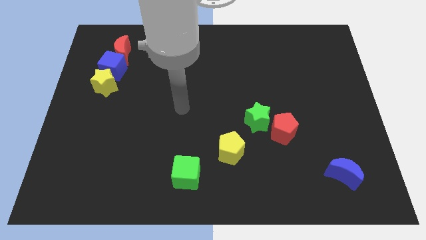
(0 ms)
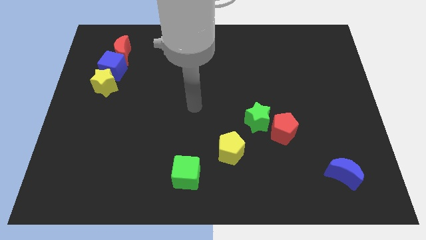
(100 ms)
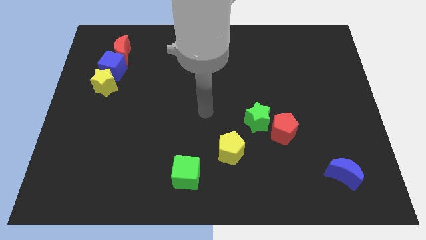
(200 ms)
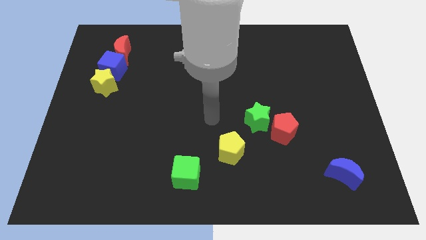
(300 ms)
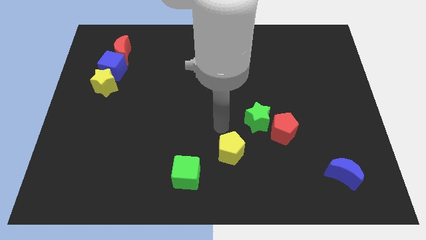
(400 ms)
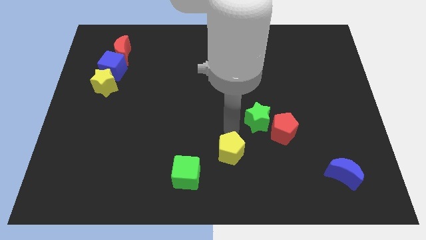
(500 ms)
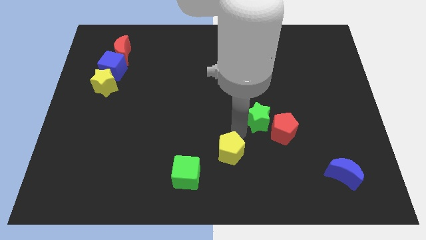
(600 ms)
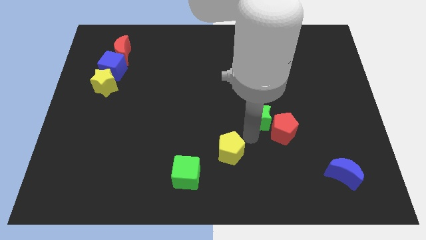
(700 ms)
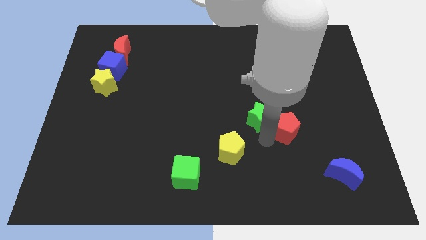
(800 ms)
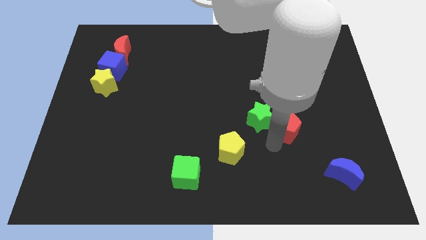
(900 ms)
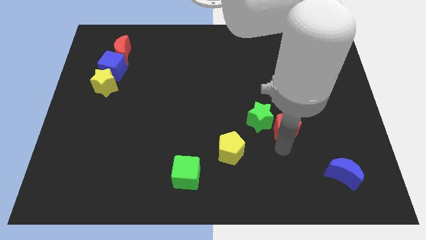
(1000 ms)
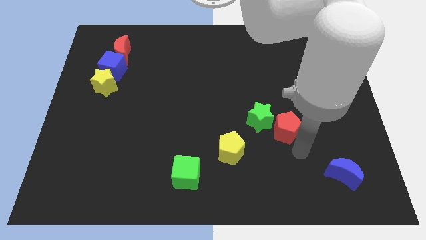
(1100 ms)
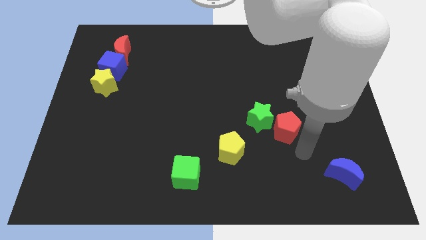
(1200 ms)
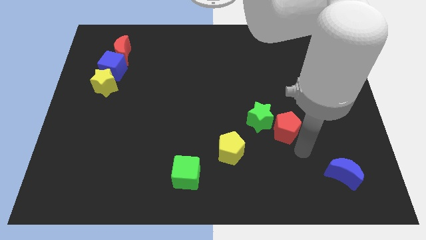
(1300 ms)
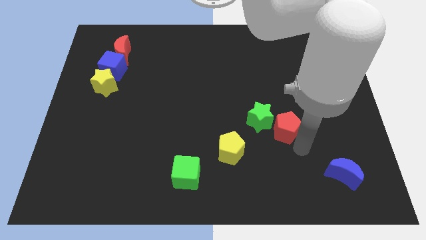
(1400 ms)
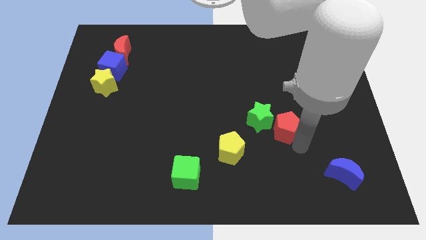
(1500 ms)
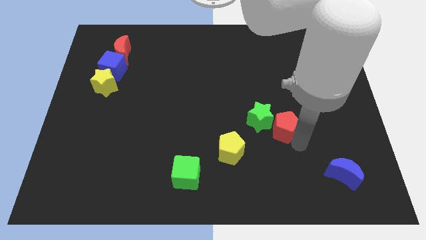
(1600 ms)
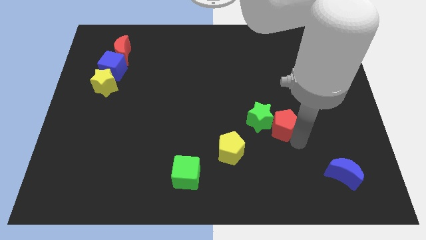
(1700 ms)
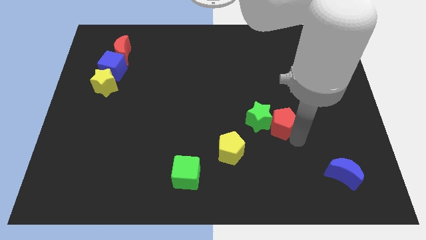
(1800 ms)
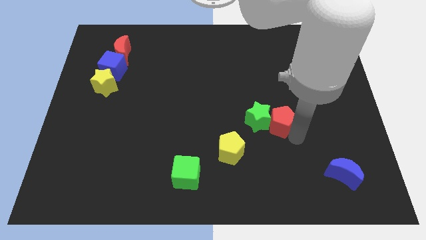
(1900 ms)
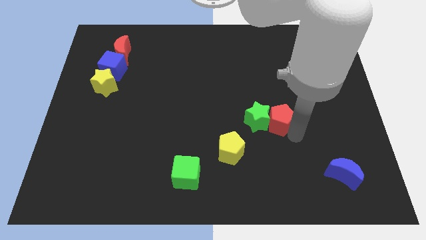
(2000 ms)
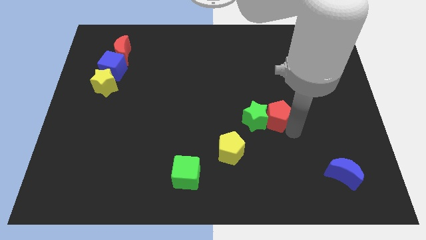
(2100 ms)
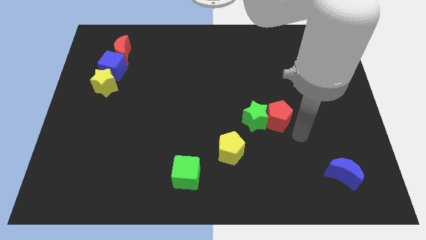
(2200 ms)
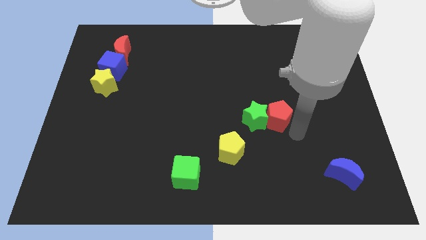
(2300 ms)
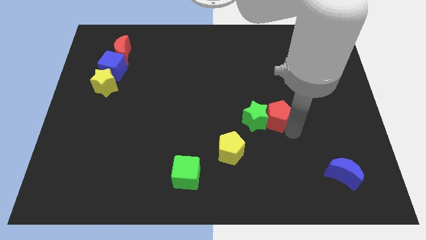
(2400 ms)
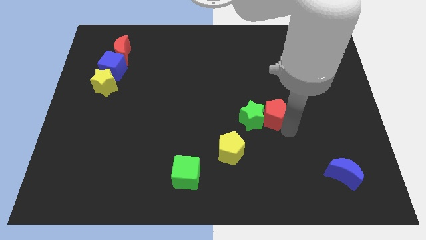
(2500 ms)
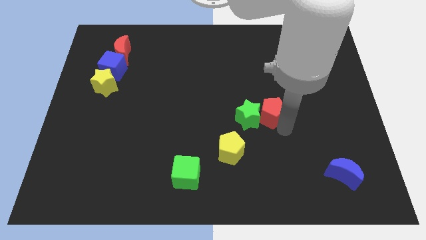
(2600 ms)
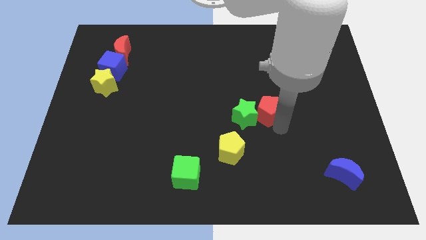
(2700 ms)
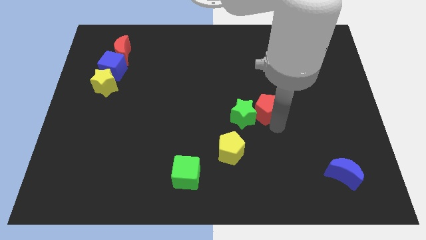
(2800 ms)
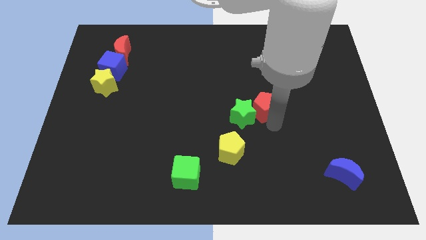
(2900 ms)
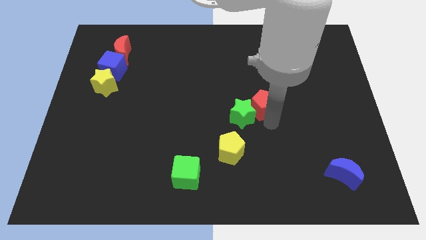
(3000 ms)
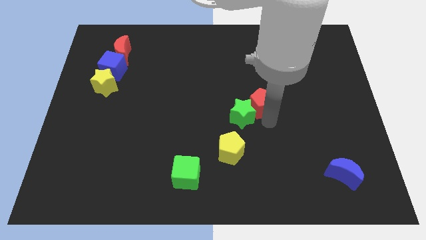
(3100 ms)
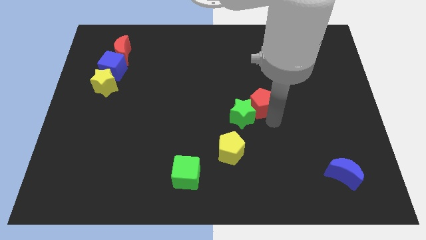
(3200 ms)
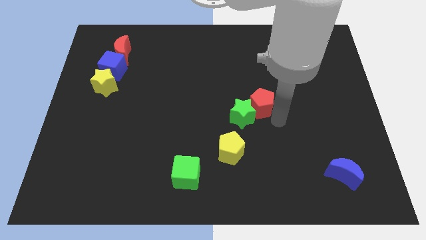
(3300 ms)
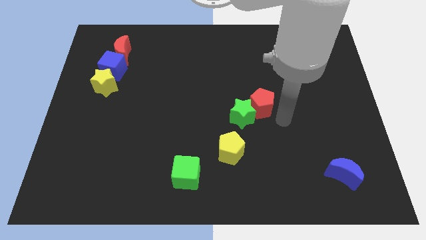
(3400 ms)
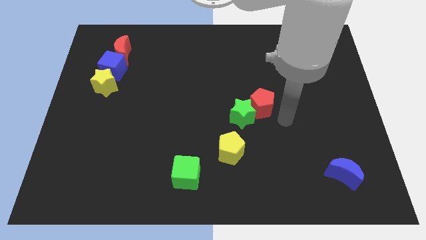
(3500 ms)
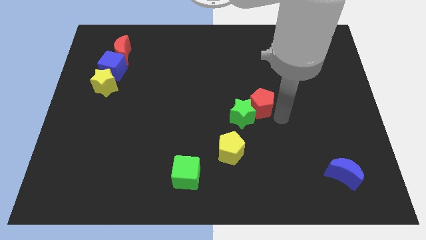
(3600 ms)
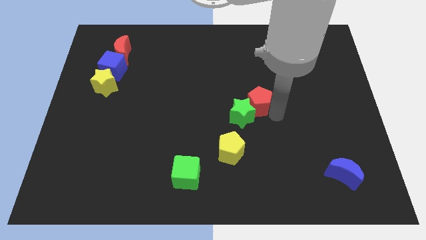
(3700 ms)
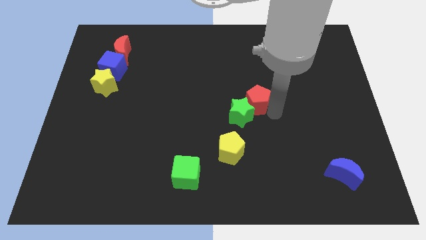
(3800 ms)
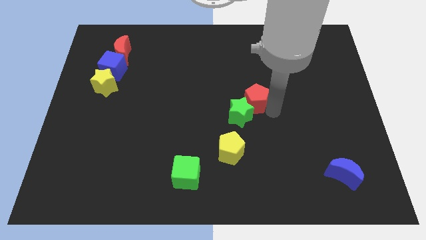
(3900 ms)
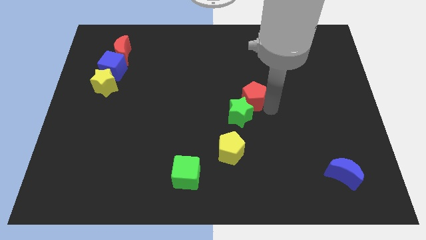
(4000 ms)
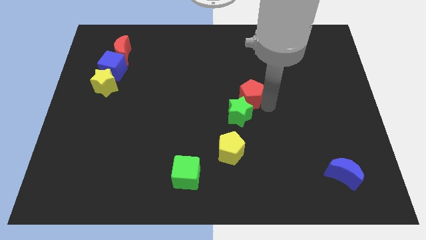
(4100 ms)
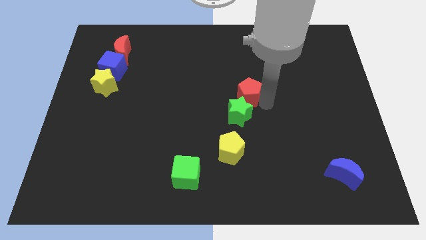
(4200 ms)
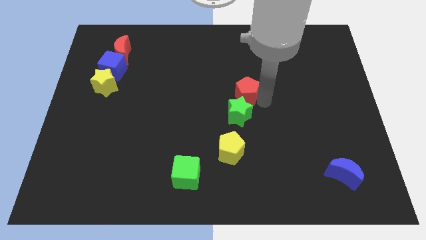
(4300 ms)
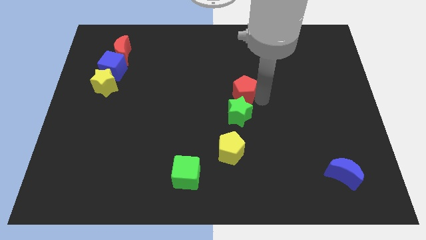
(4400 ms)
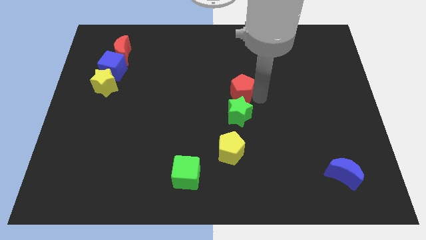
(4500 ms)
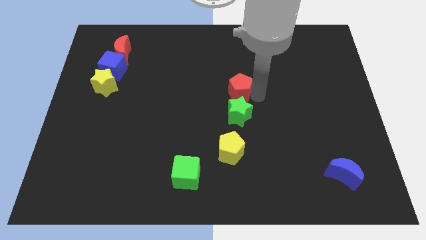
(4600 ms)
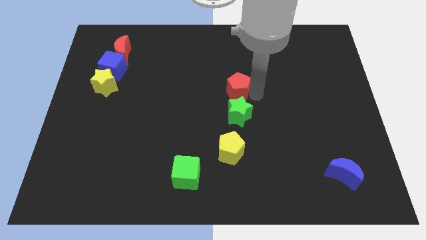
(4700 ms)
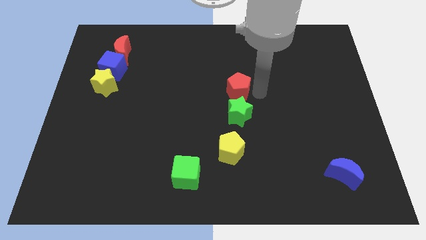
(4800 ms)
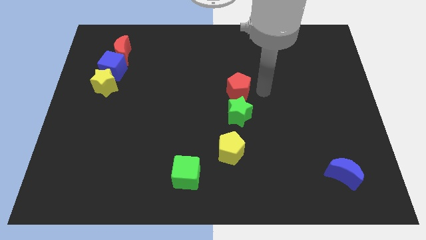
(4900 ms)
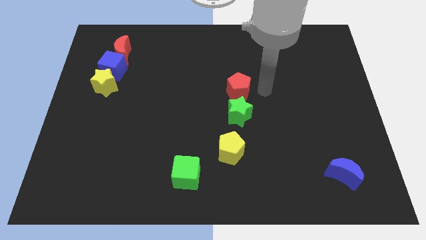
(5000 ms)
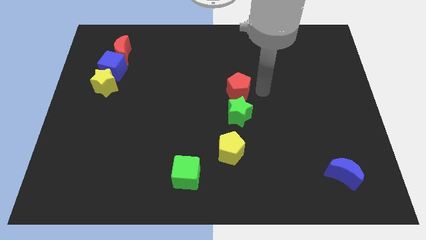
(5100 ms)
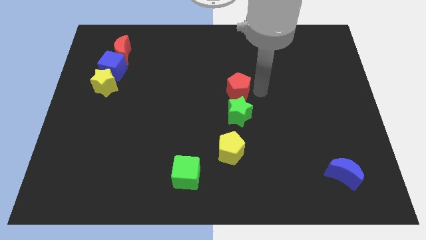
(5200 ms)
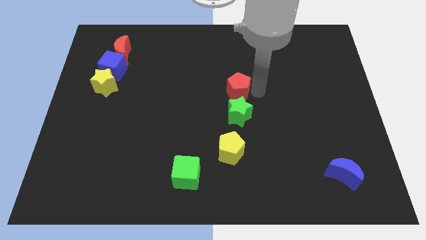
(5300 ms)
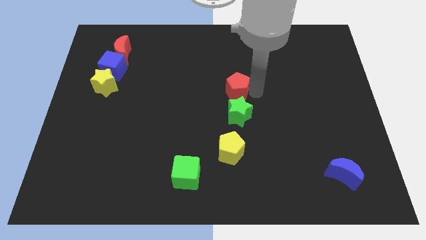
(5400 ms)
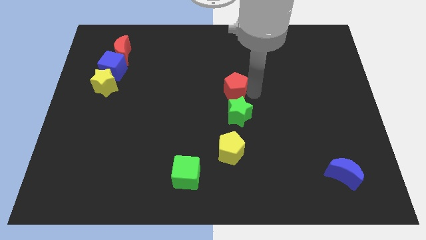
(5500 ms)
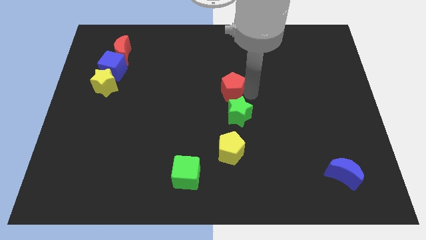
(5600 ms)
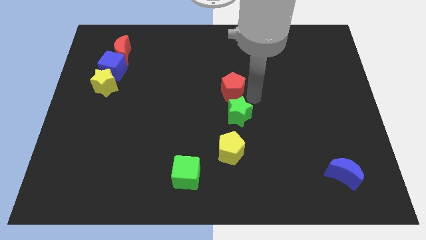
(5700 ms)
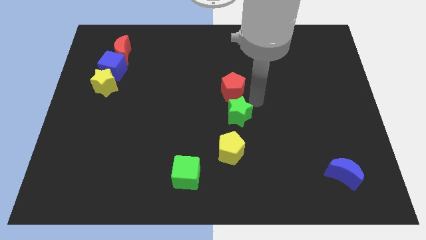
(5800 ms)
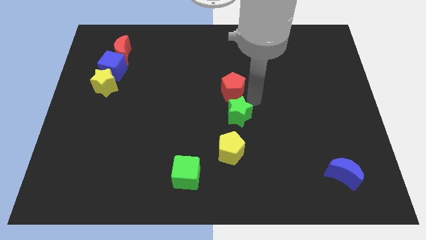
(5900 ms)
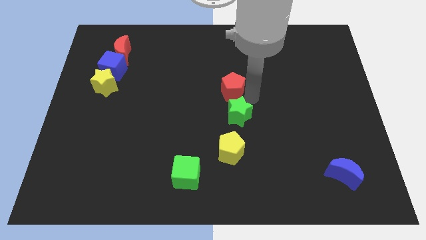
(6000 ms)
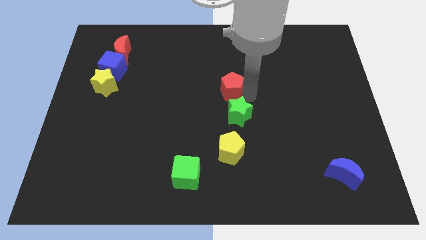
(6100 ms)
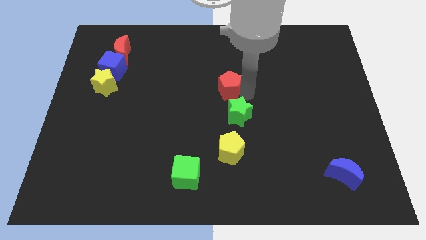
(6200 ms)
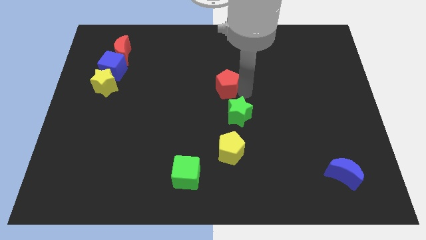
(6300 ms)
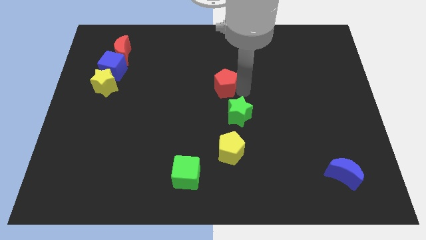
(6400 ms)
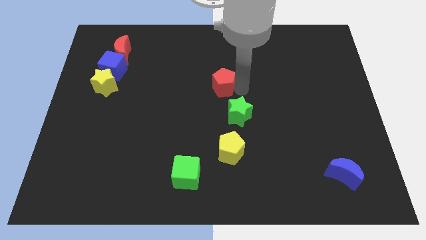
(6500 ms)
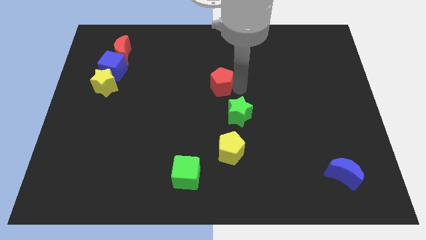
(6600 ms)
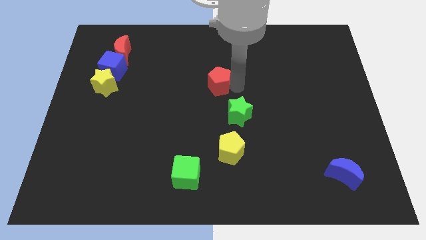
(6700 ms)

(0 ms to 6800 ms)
move the red pentagon up and to the left

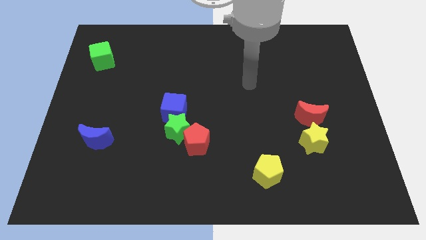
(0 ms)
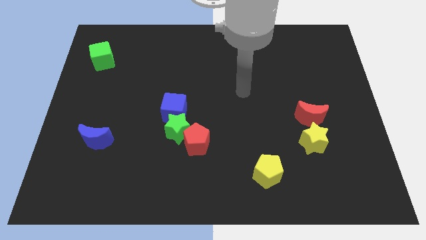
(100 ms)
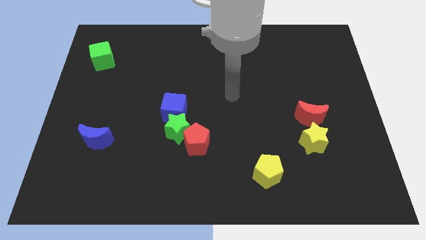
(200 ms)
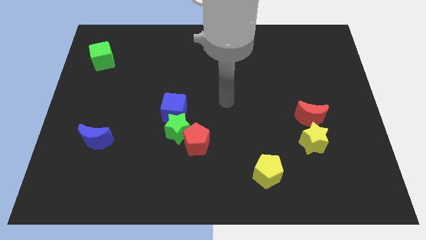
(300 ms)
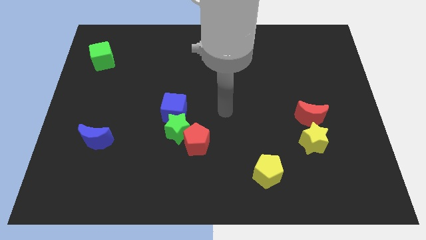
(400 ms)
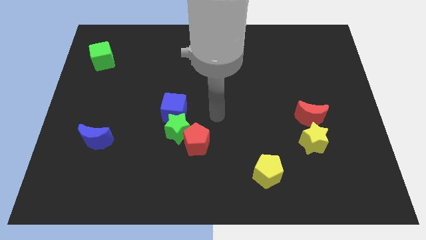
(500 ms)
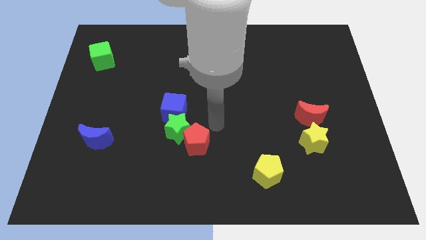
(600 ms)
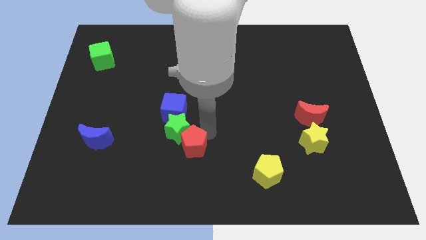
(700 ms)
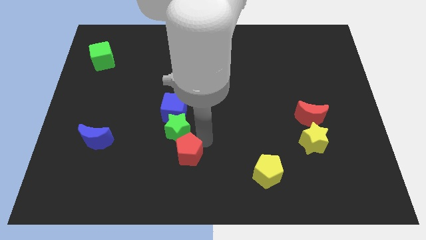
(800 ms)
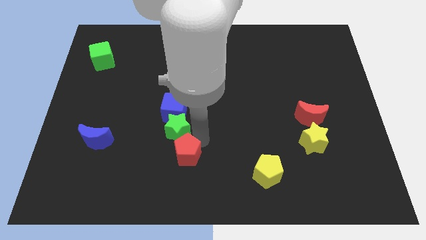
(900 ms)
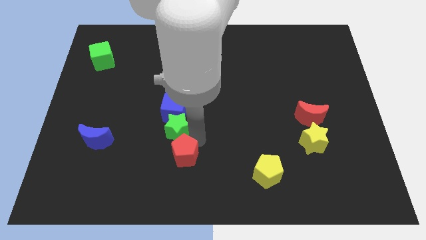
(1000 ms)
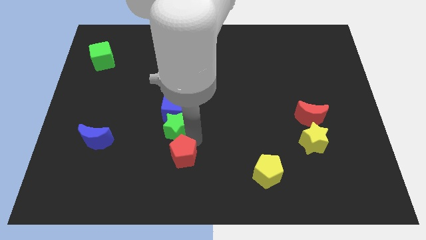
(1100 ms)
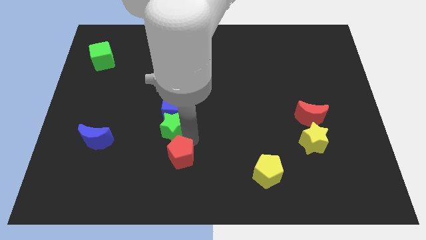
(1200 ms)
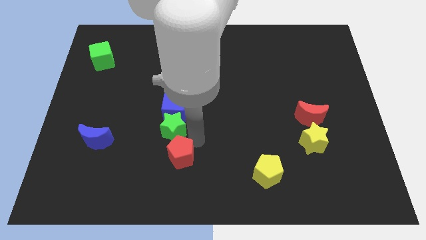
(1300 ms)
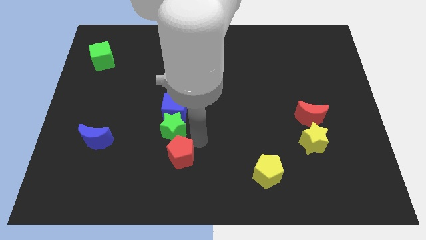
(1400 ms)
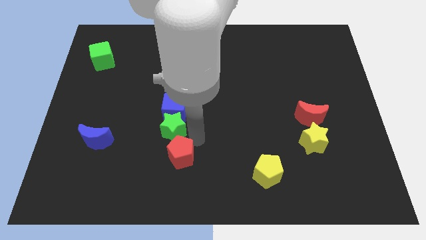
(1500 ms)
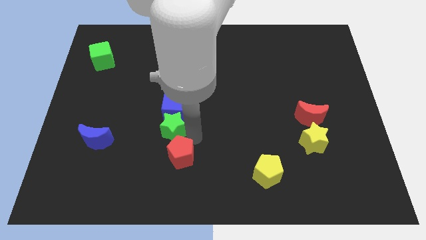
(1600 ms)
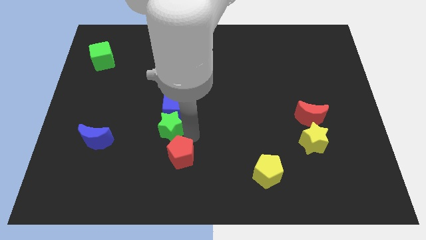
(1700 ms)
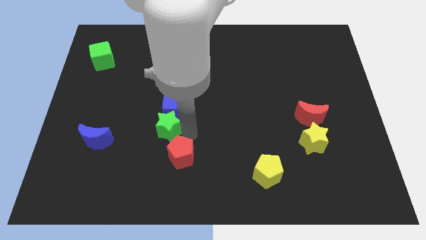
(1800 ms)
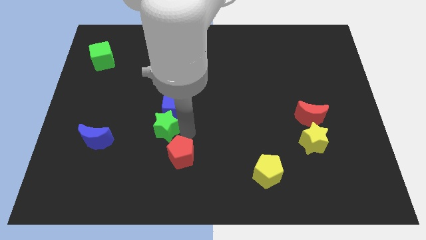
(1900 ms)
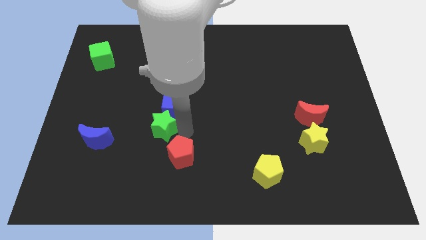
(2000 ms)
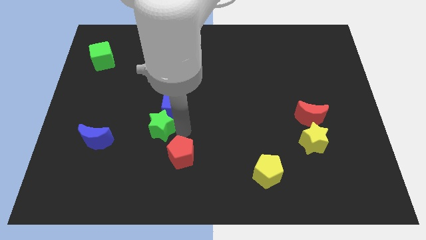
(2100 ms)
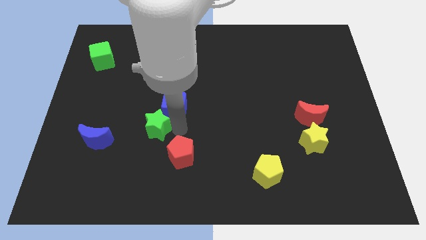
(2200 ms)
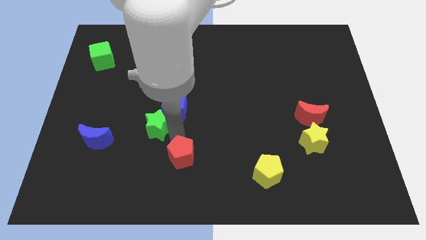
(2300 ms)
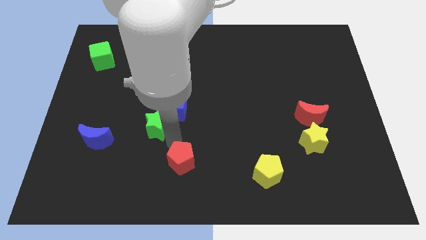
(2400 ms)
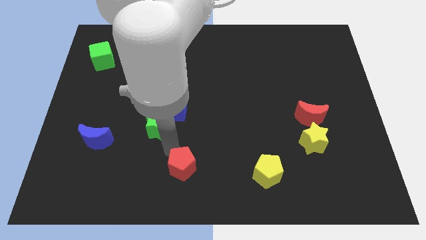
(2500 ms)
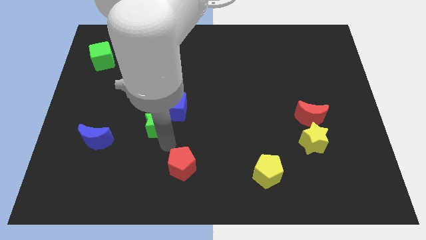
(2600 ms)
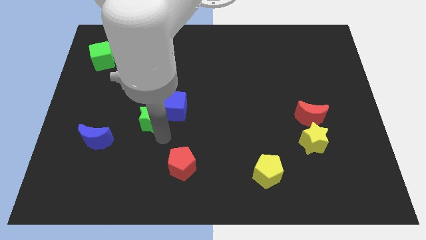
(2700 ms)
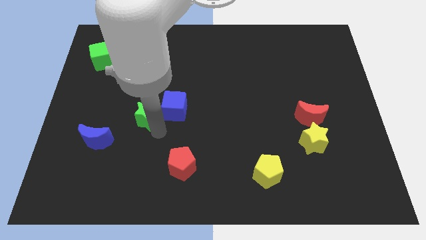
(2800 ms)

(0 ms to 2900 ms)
slightly move the green star upwards and then to the left
